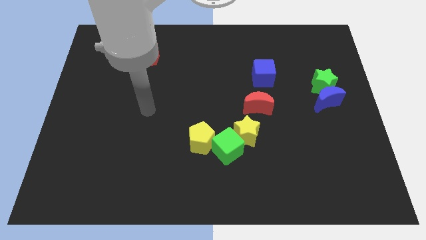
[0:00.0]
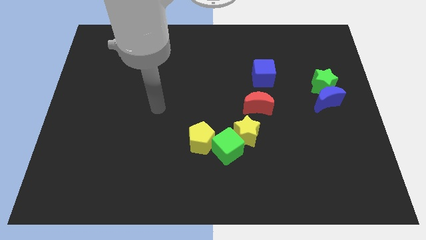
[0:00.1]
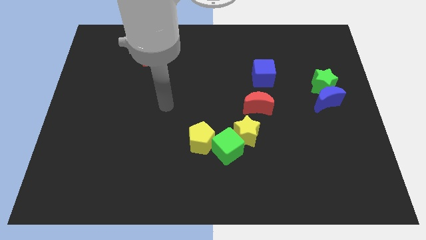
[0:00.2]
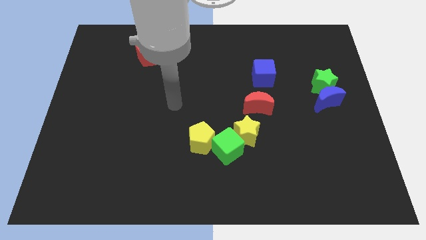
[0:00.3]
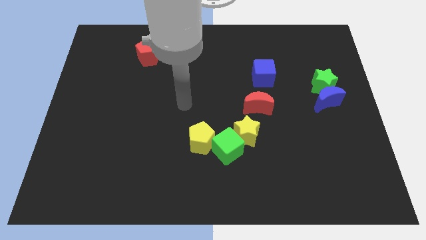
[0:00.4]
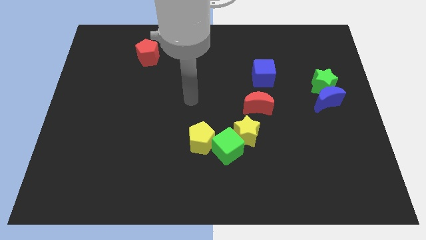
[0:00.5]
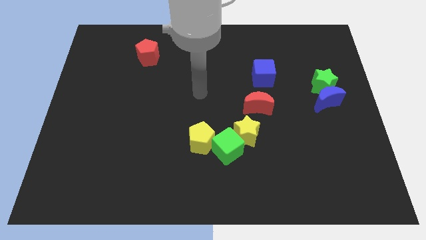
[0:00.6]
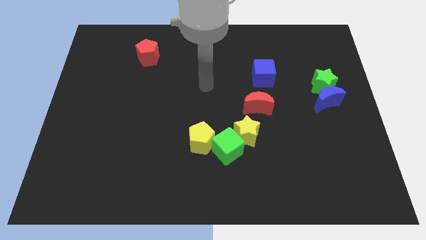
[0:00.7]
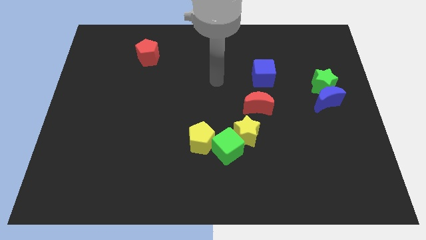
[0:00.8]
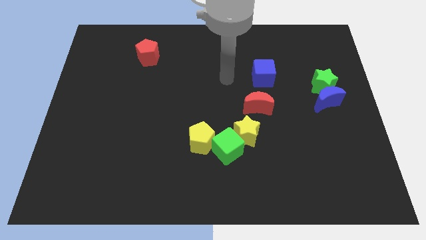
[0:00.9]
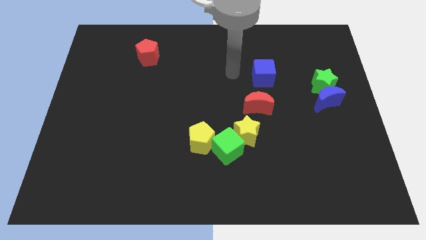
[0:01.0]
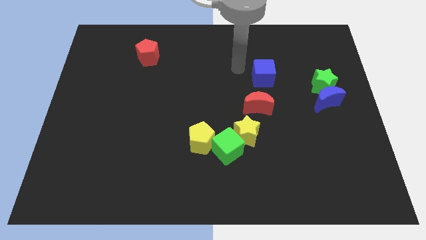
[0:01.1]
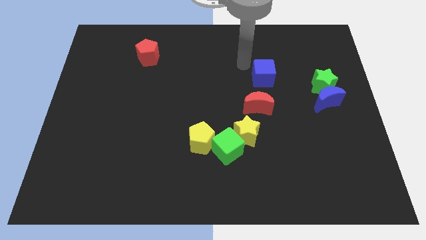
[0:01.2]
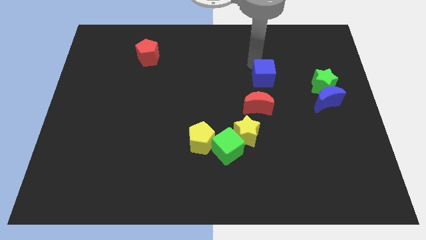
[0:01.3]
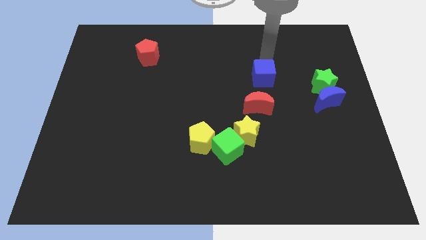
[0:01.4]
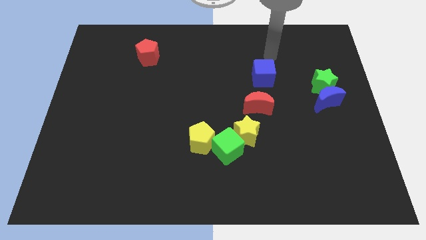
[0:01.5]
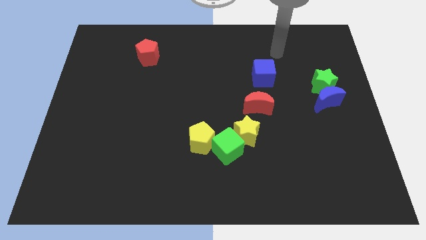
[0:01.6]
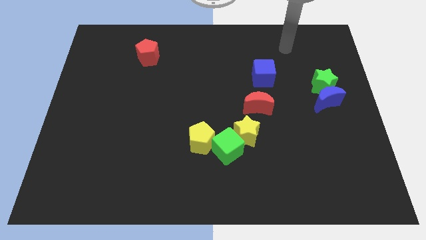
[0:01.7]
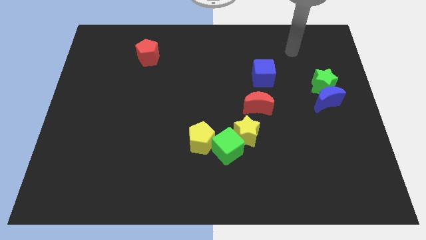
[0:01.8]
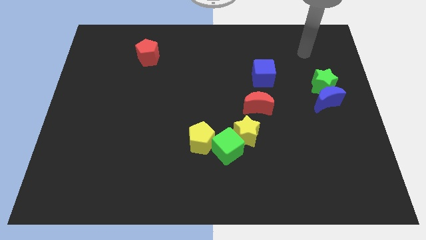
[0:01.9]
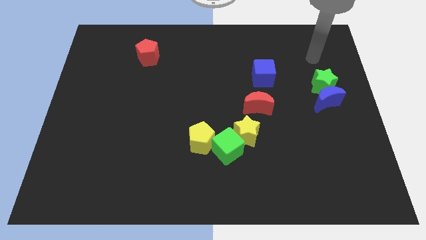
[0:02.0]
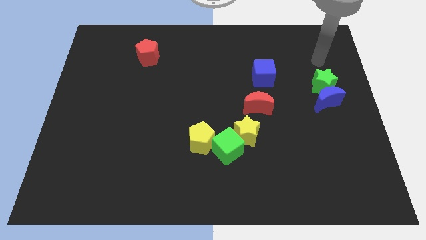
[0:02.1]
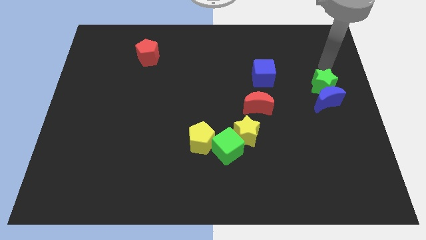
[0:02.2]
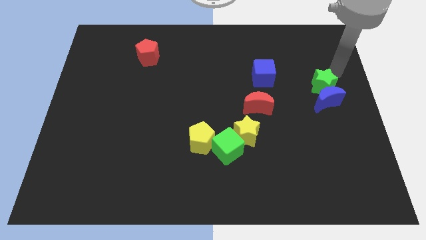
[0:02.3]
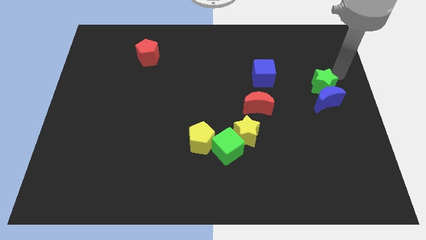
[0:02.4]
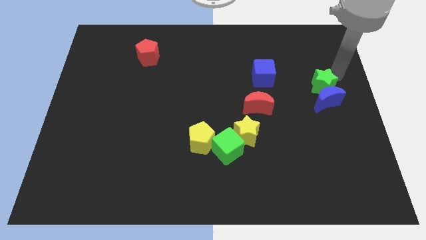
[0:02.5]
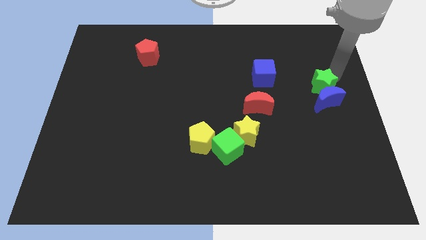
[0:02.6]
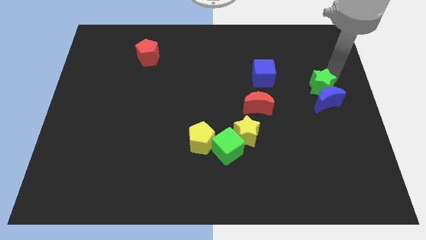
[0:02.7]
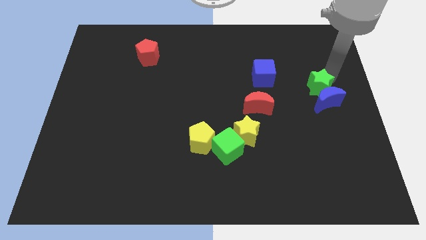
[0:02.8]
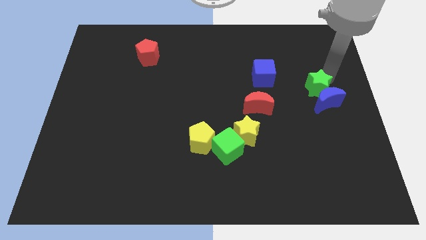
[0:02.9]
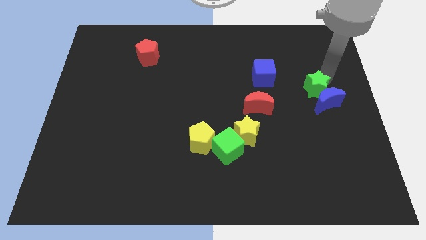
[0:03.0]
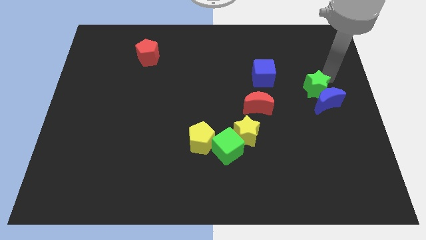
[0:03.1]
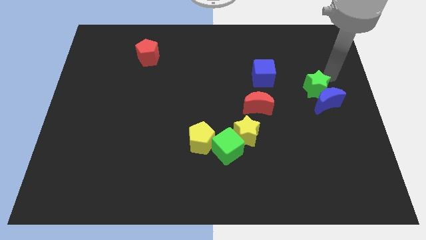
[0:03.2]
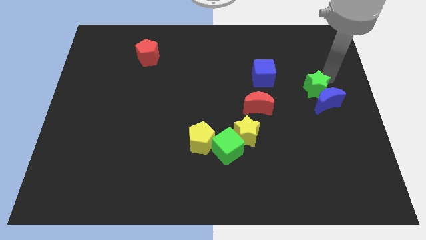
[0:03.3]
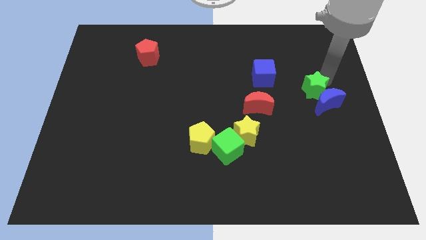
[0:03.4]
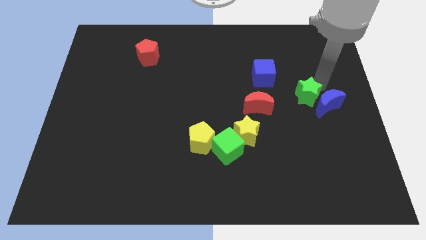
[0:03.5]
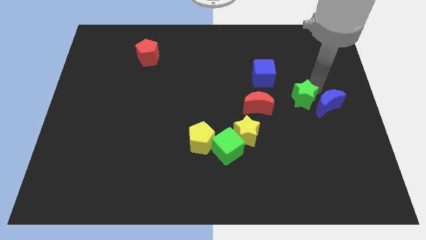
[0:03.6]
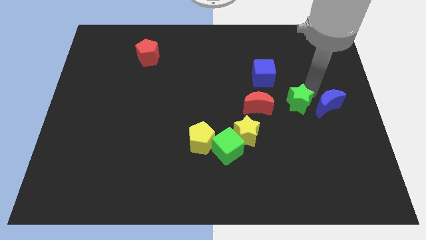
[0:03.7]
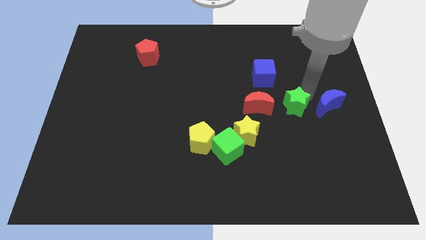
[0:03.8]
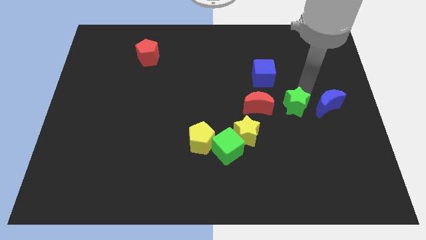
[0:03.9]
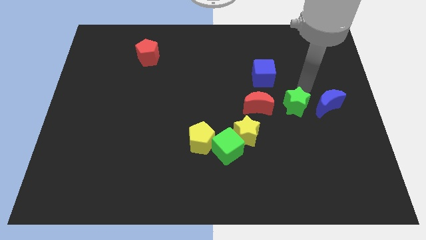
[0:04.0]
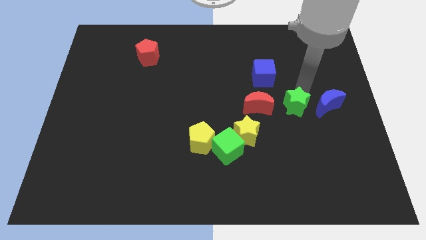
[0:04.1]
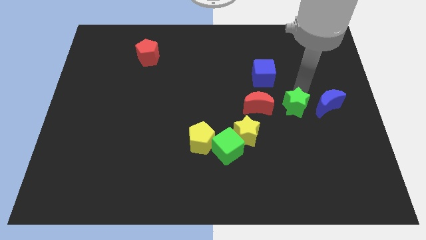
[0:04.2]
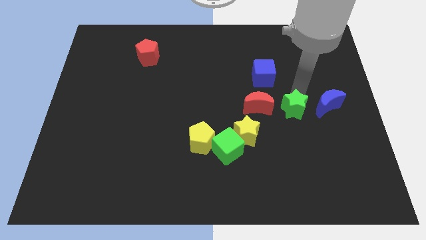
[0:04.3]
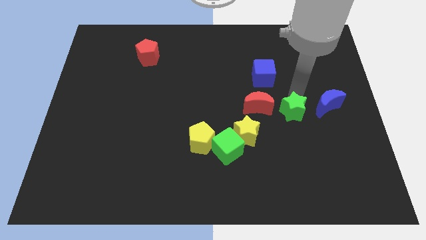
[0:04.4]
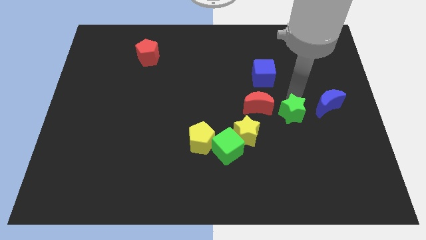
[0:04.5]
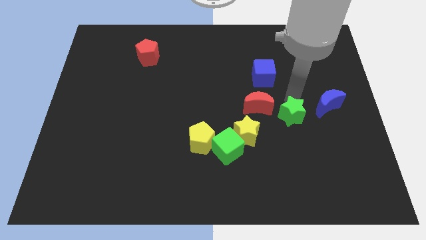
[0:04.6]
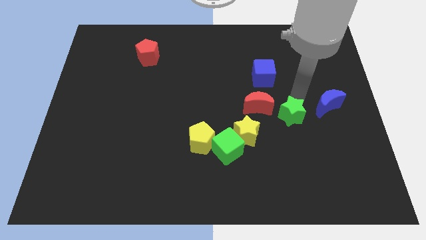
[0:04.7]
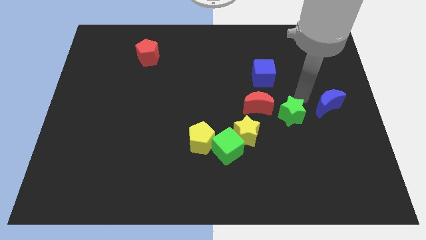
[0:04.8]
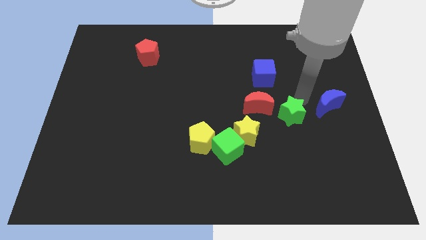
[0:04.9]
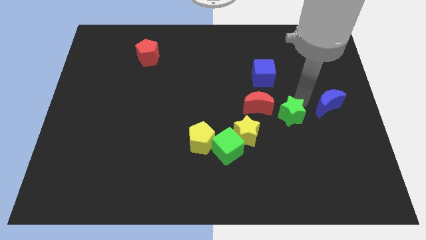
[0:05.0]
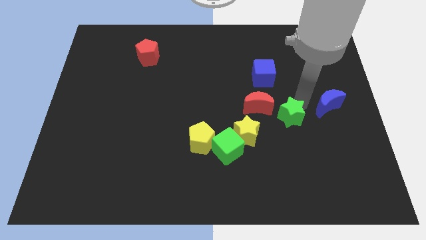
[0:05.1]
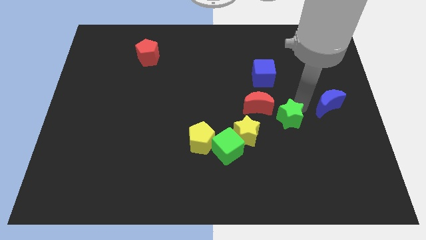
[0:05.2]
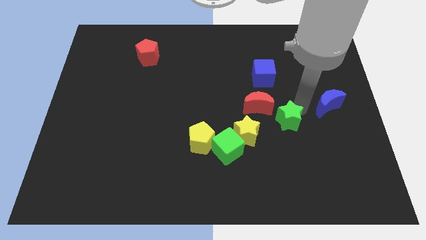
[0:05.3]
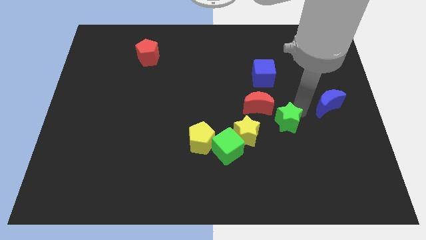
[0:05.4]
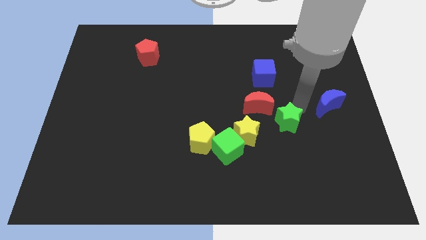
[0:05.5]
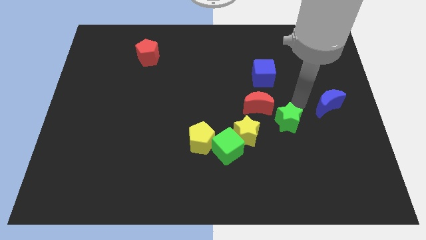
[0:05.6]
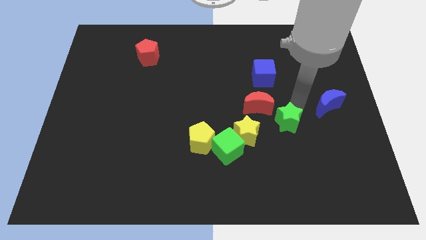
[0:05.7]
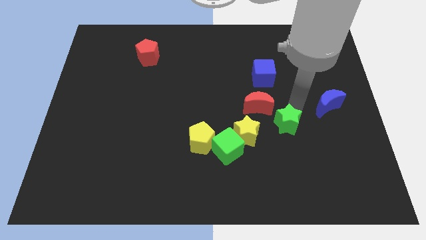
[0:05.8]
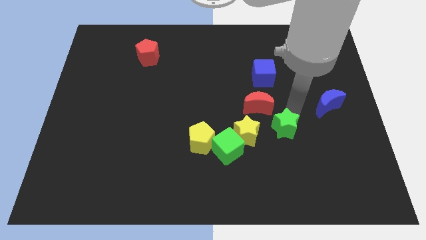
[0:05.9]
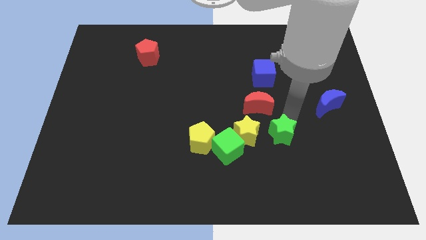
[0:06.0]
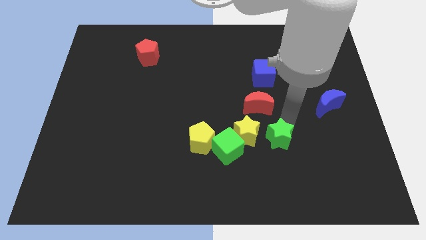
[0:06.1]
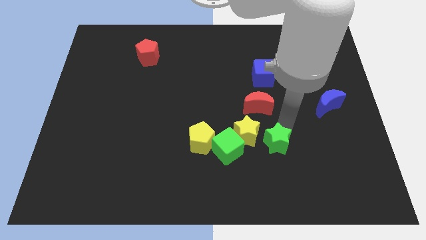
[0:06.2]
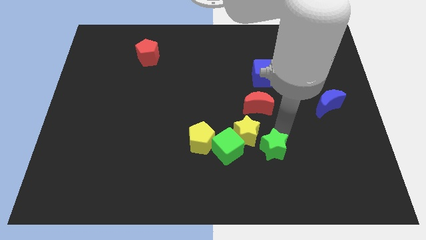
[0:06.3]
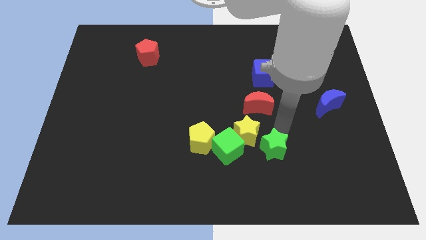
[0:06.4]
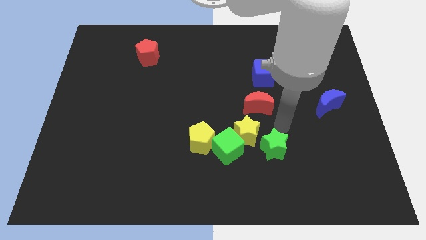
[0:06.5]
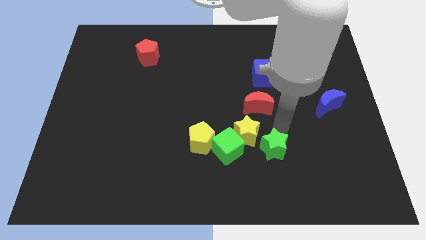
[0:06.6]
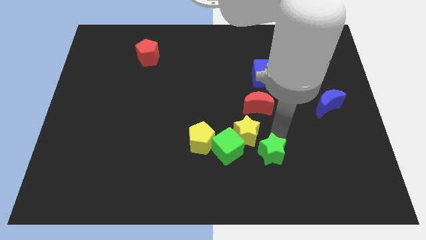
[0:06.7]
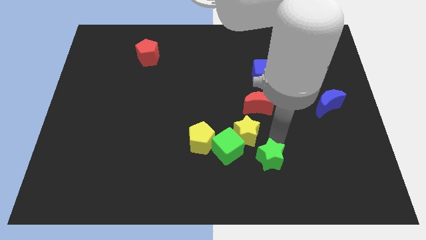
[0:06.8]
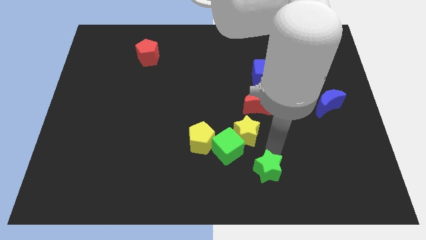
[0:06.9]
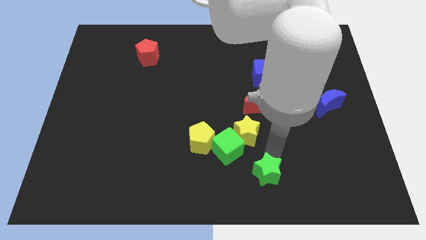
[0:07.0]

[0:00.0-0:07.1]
put the green star to the bottom
